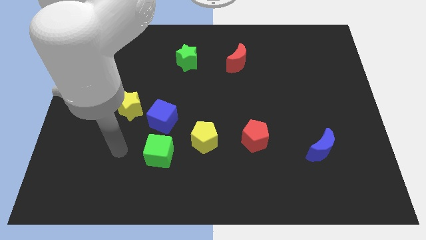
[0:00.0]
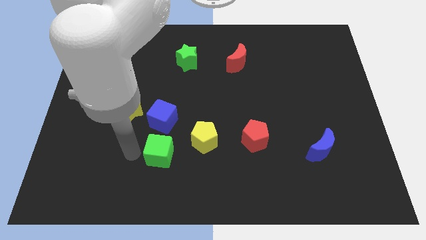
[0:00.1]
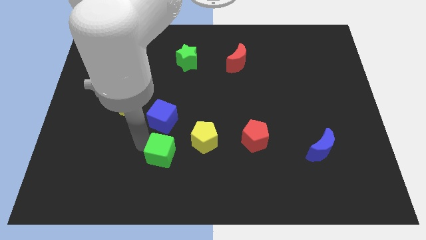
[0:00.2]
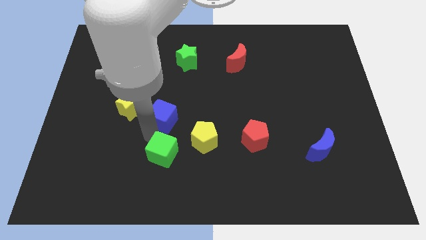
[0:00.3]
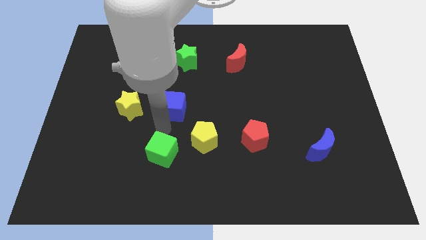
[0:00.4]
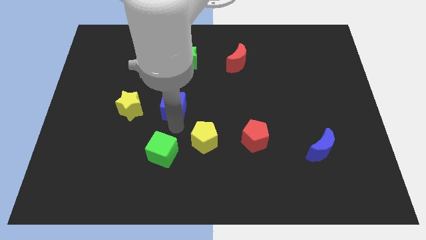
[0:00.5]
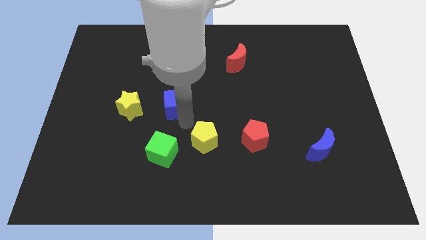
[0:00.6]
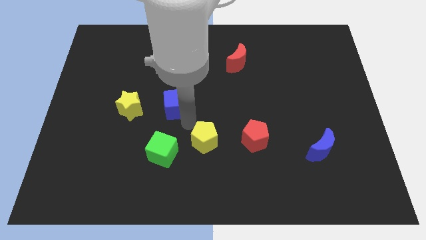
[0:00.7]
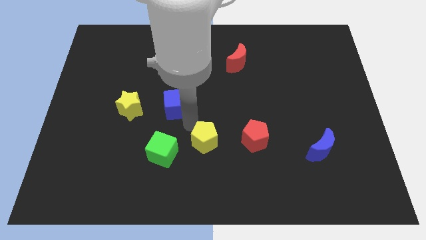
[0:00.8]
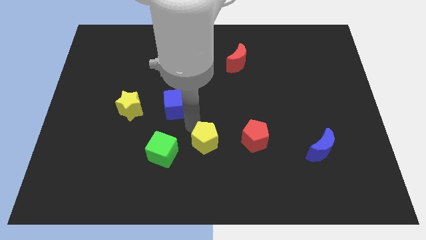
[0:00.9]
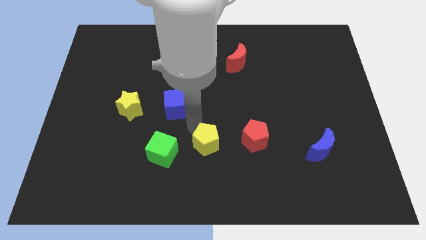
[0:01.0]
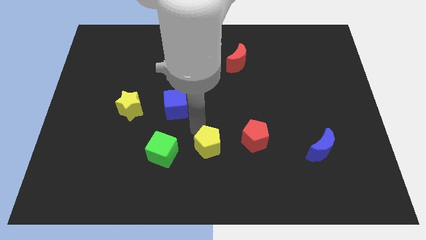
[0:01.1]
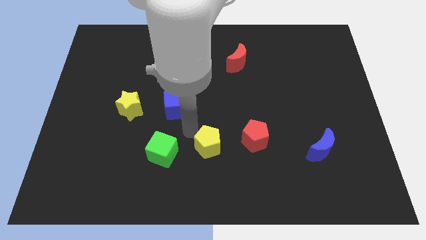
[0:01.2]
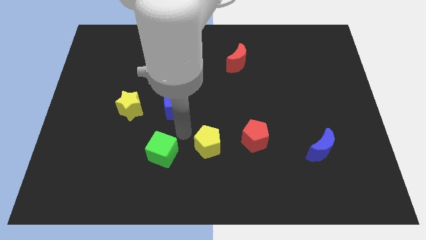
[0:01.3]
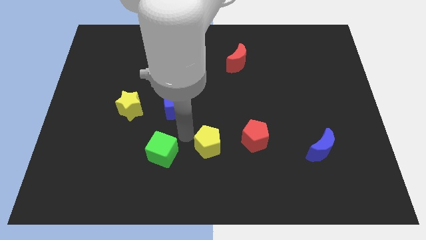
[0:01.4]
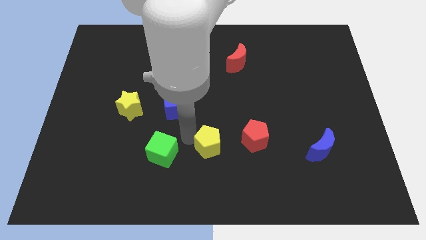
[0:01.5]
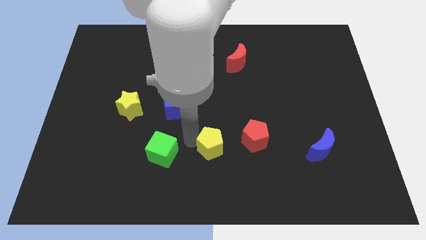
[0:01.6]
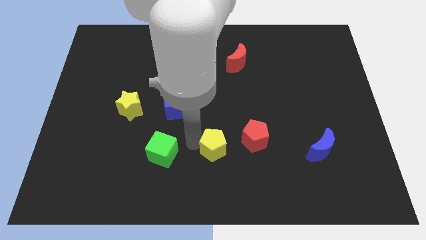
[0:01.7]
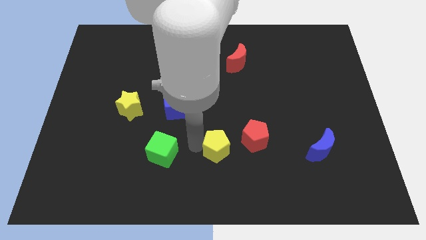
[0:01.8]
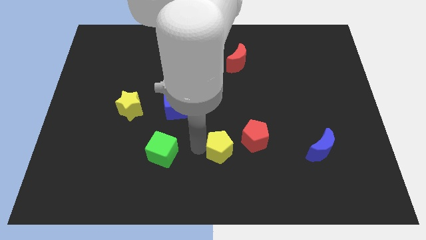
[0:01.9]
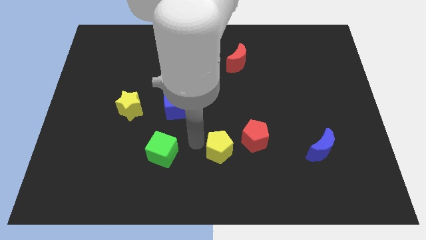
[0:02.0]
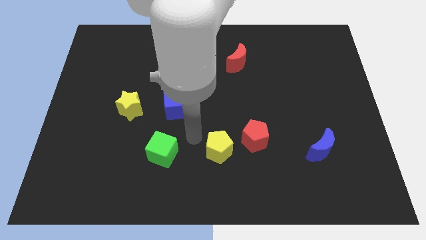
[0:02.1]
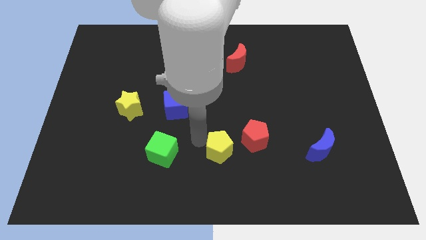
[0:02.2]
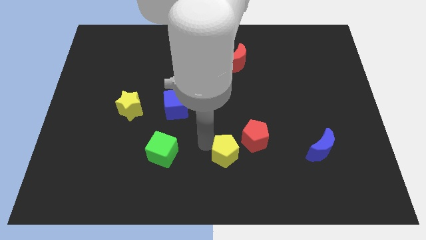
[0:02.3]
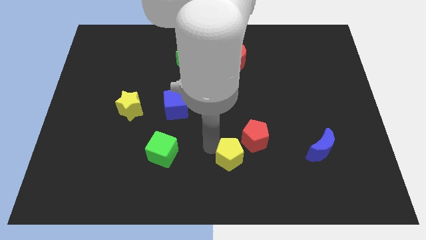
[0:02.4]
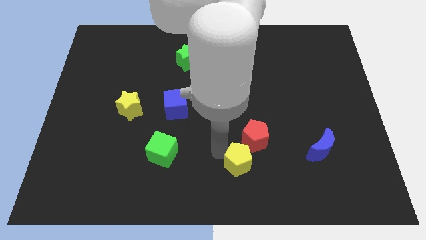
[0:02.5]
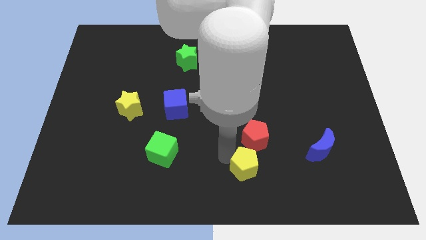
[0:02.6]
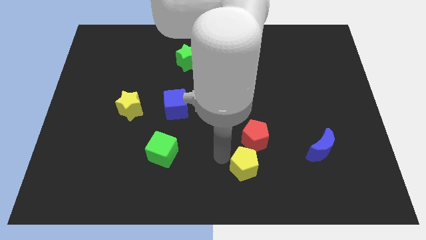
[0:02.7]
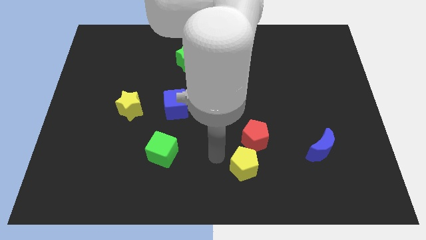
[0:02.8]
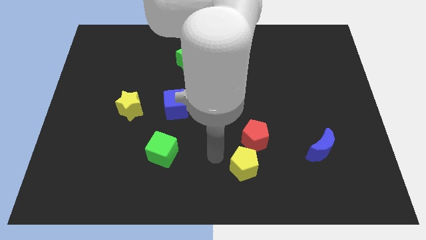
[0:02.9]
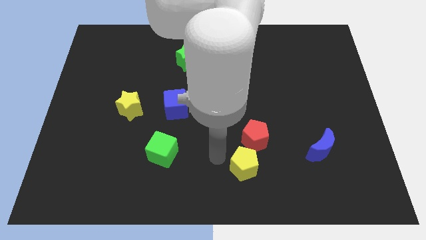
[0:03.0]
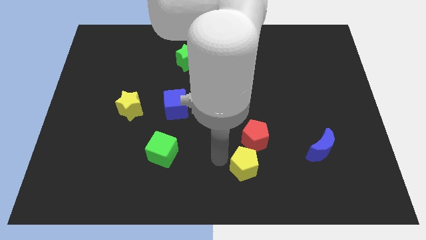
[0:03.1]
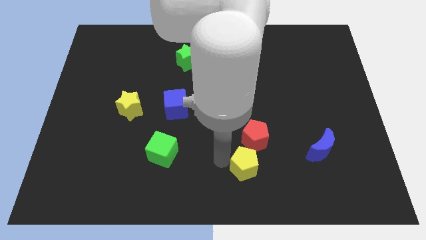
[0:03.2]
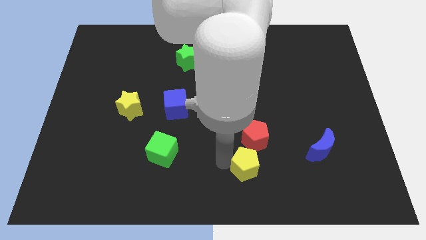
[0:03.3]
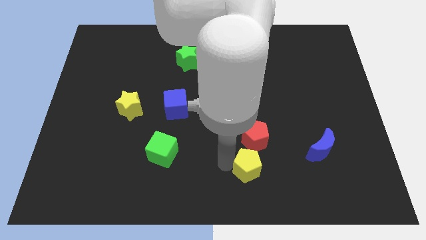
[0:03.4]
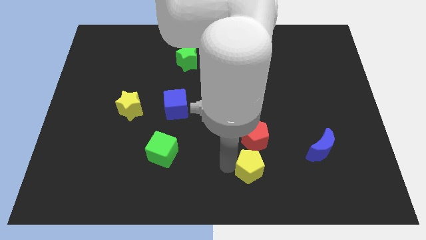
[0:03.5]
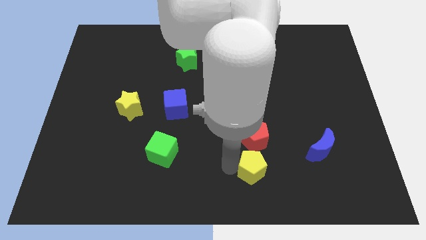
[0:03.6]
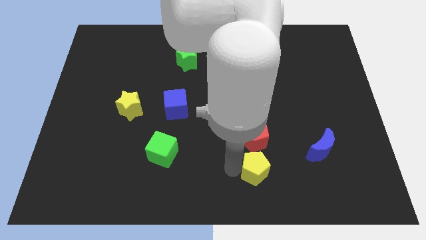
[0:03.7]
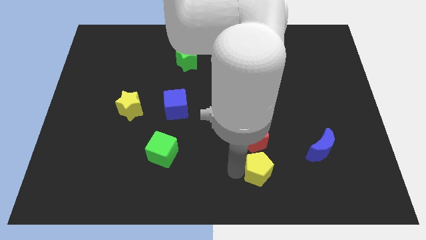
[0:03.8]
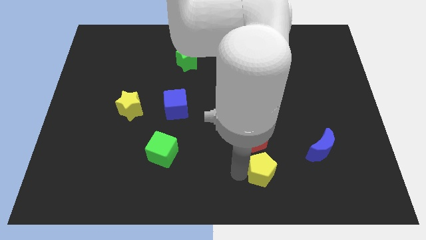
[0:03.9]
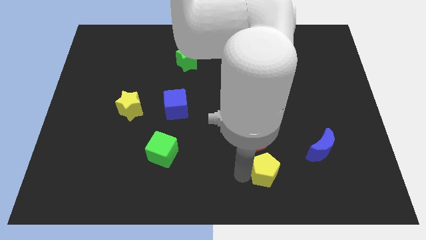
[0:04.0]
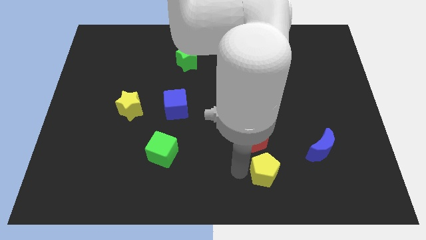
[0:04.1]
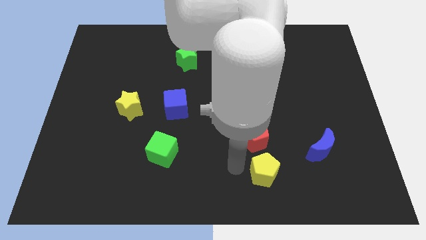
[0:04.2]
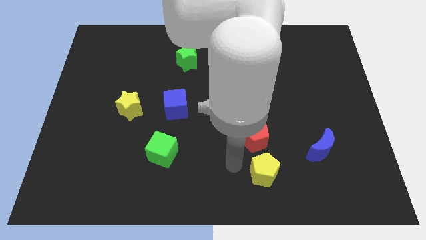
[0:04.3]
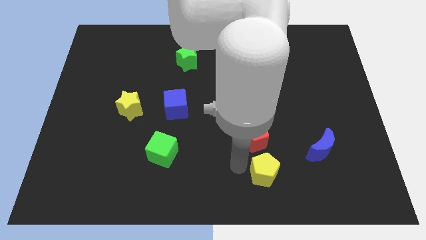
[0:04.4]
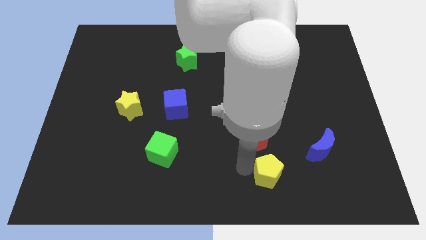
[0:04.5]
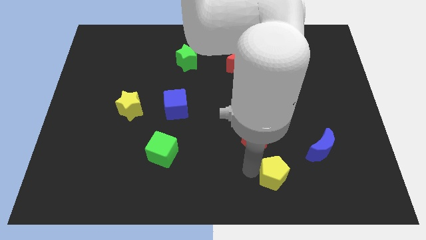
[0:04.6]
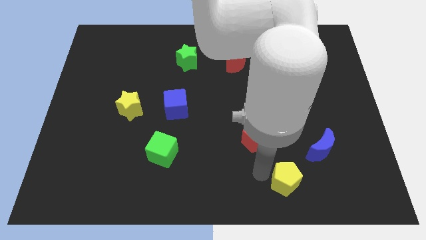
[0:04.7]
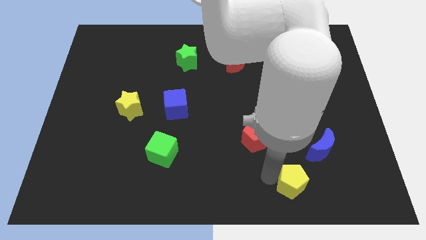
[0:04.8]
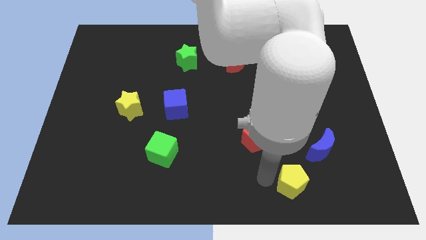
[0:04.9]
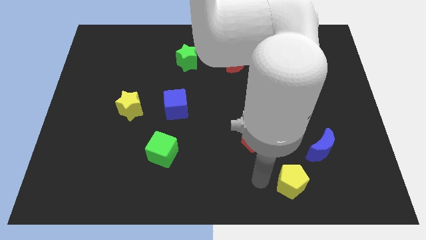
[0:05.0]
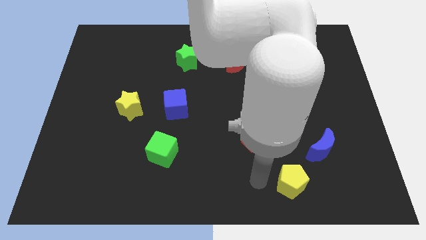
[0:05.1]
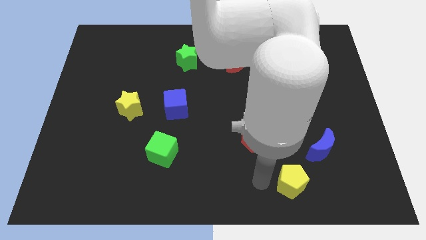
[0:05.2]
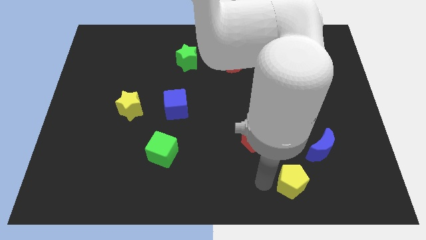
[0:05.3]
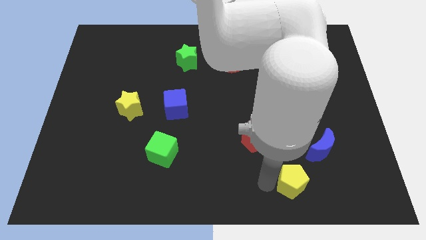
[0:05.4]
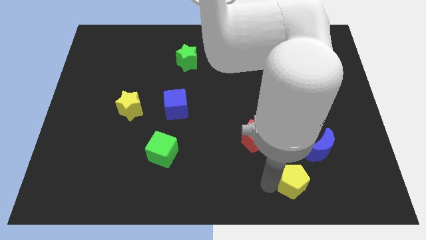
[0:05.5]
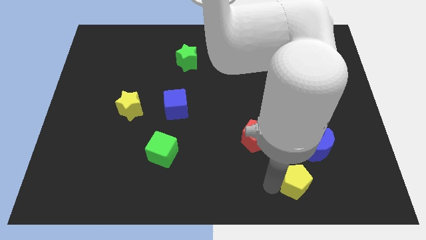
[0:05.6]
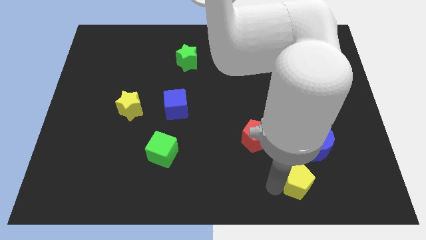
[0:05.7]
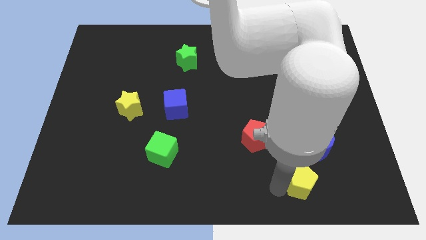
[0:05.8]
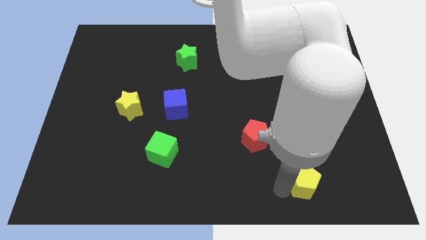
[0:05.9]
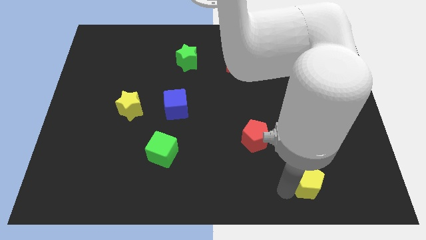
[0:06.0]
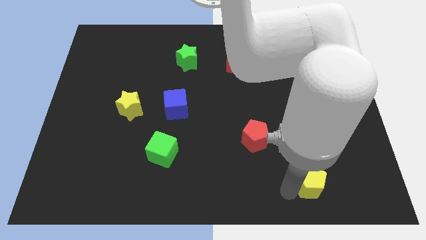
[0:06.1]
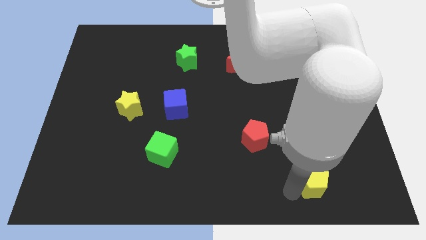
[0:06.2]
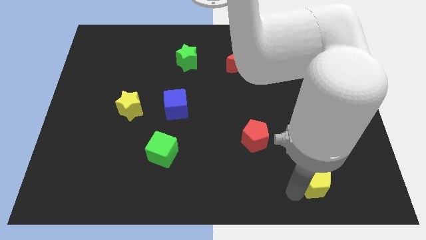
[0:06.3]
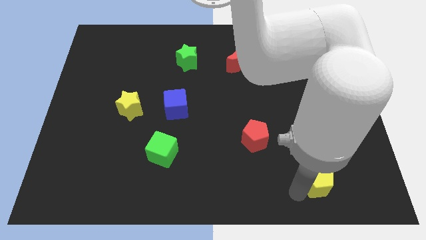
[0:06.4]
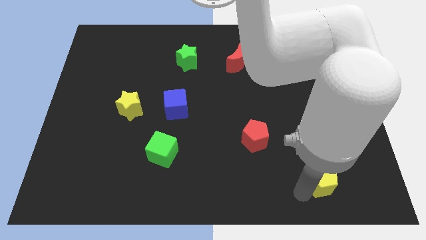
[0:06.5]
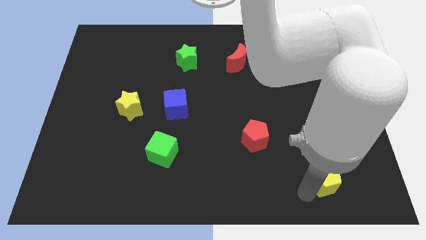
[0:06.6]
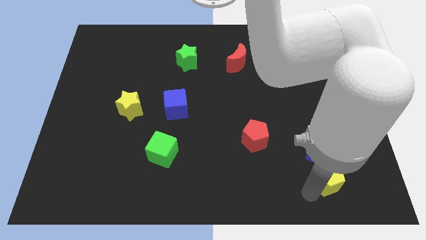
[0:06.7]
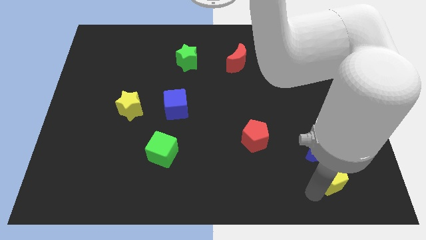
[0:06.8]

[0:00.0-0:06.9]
put the yellow pentagon diagonally down and to the right of the blue moon
